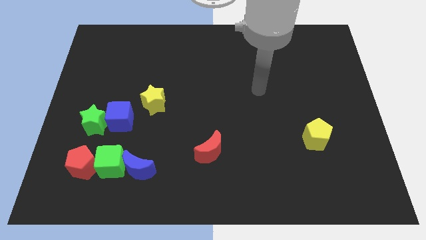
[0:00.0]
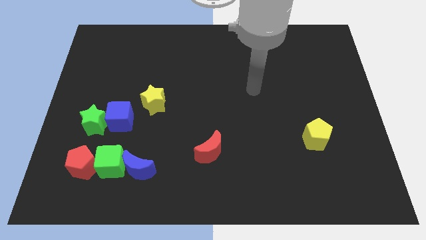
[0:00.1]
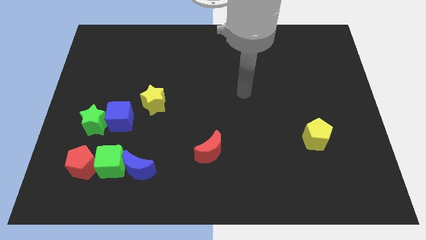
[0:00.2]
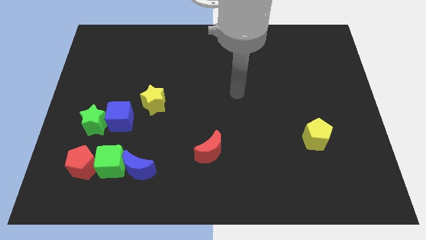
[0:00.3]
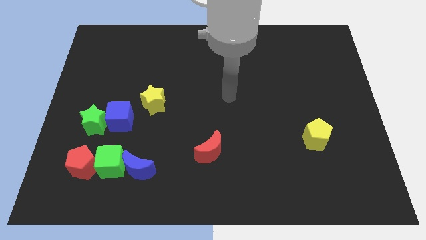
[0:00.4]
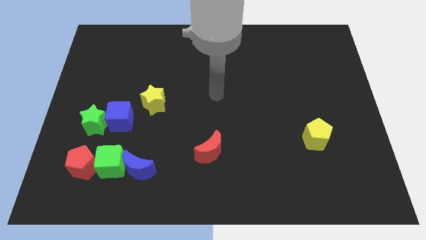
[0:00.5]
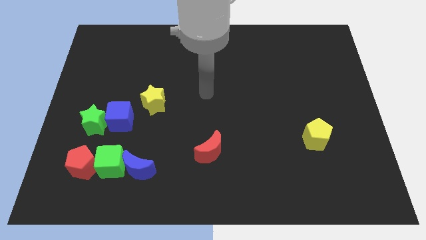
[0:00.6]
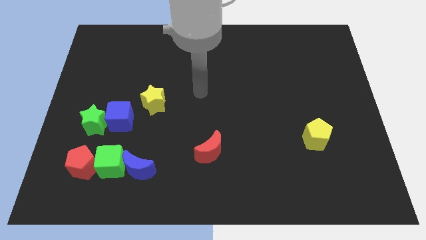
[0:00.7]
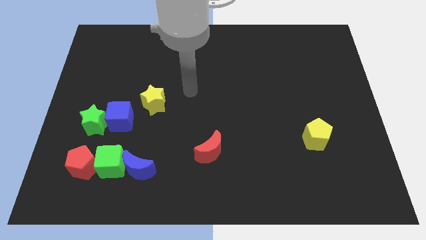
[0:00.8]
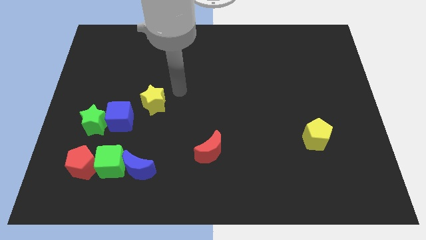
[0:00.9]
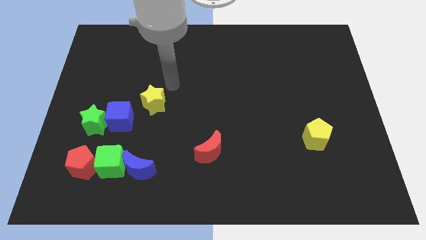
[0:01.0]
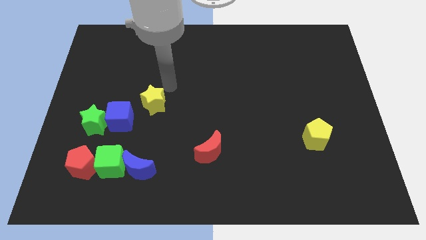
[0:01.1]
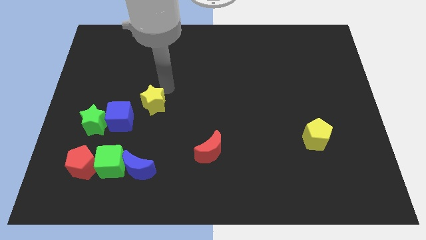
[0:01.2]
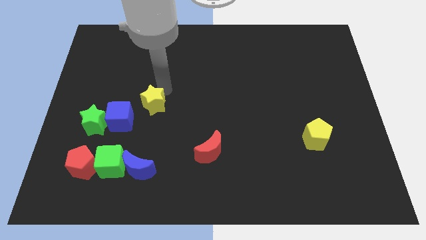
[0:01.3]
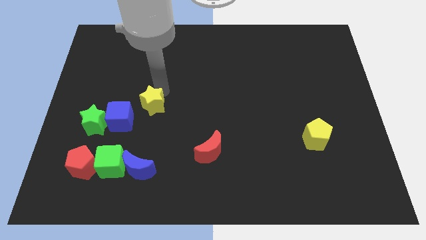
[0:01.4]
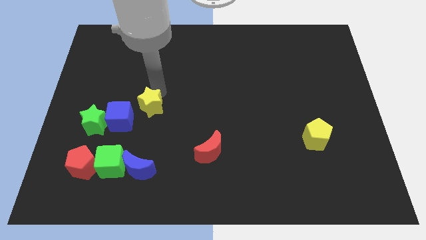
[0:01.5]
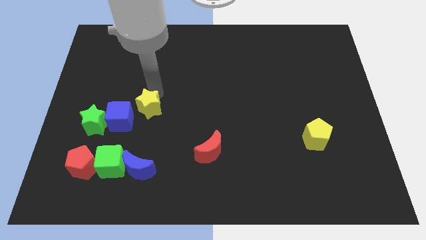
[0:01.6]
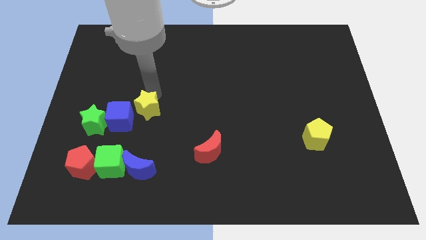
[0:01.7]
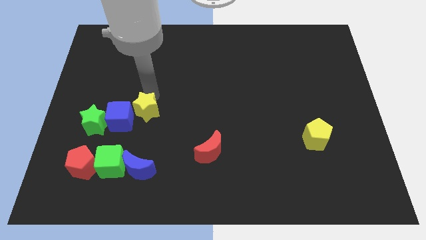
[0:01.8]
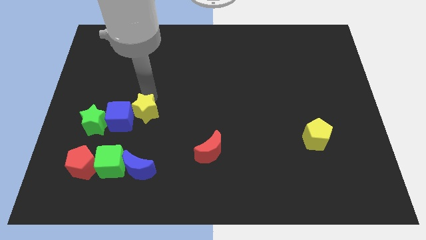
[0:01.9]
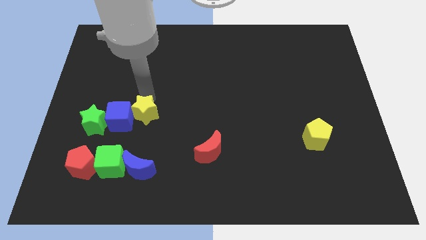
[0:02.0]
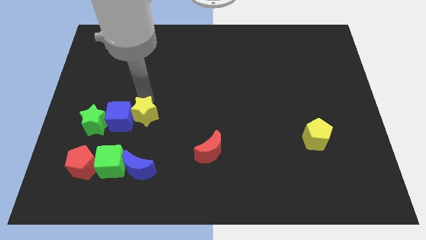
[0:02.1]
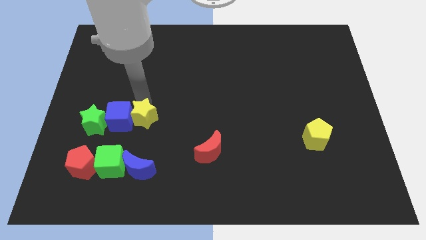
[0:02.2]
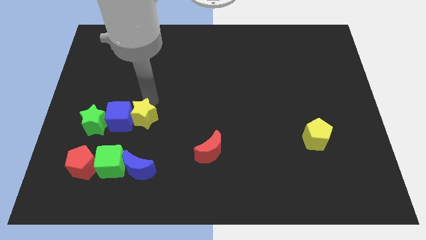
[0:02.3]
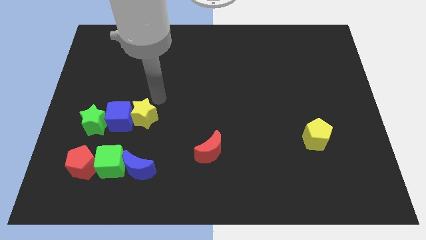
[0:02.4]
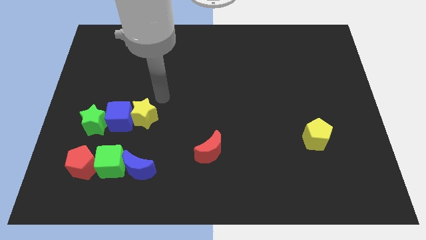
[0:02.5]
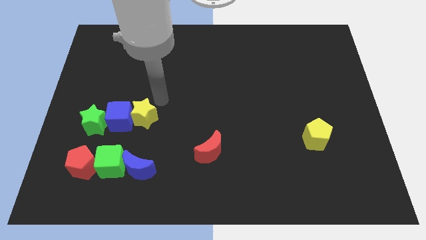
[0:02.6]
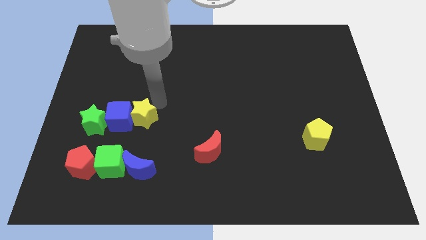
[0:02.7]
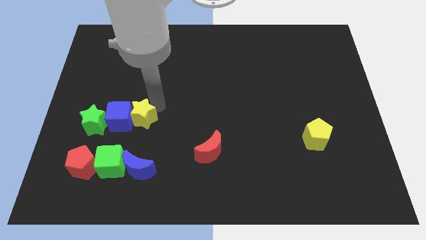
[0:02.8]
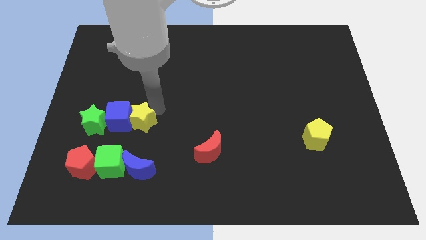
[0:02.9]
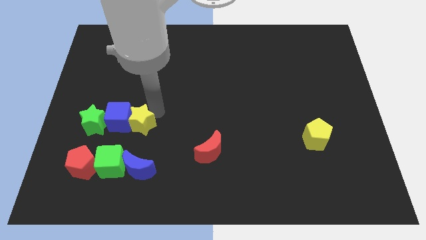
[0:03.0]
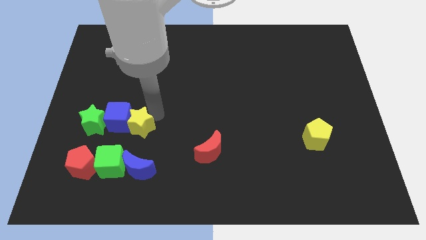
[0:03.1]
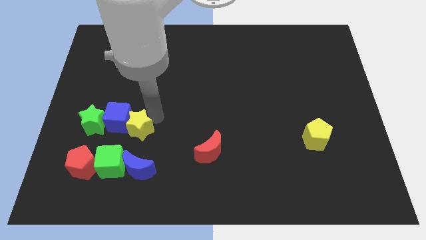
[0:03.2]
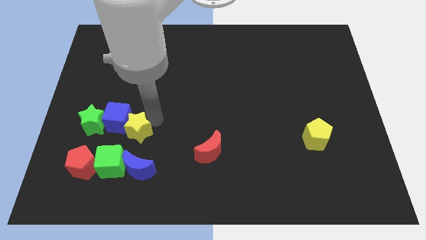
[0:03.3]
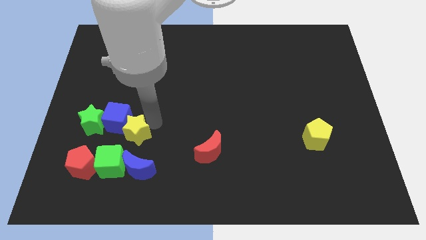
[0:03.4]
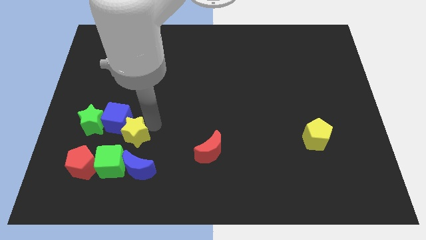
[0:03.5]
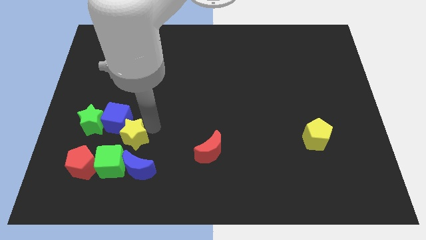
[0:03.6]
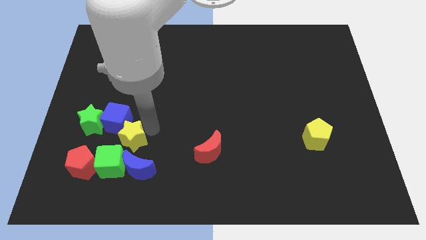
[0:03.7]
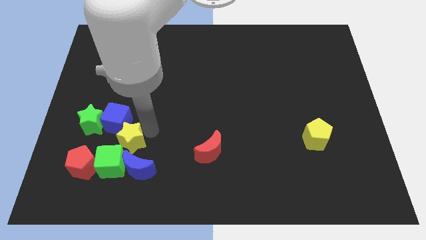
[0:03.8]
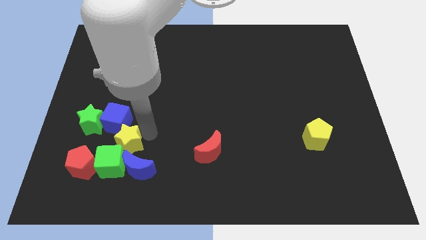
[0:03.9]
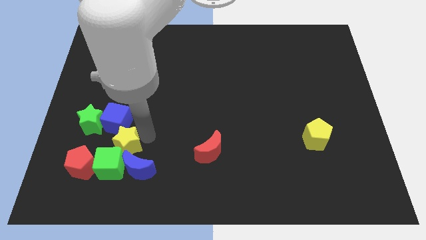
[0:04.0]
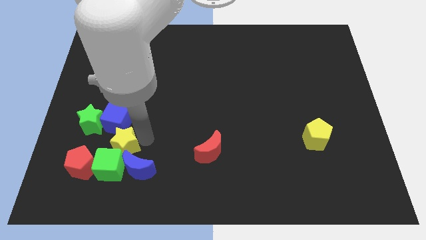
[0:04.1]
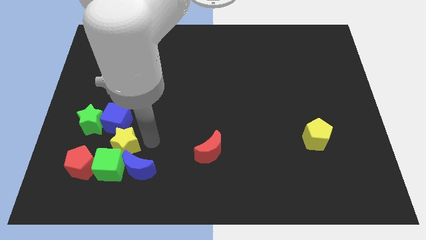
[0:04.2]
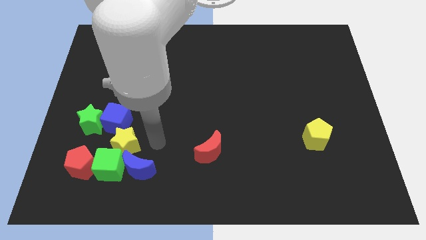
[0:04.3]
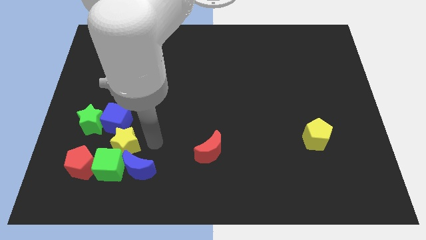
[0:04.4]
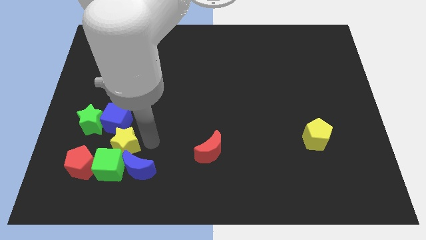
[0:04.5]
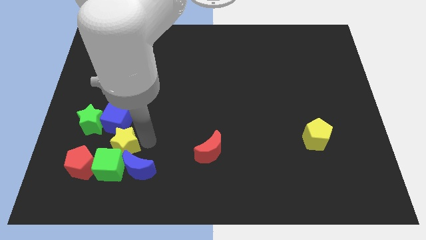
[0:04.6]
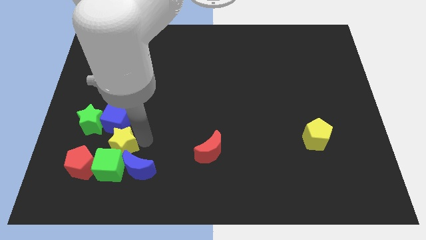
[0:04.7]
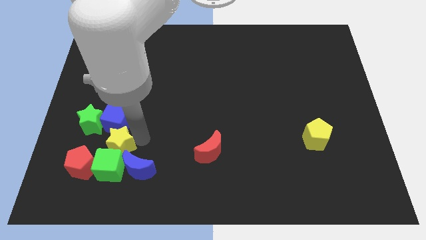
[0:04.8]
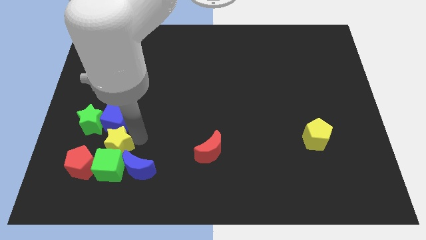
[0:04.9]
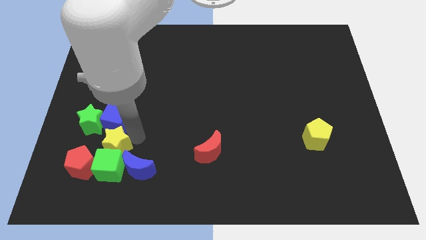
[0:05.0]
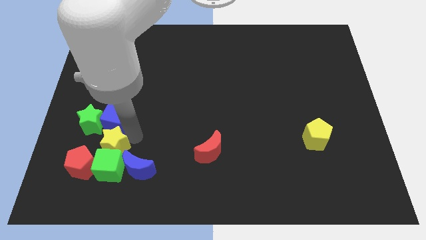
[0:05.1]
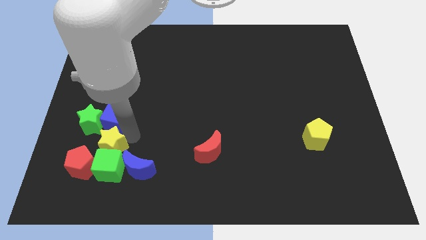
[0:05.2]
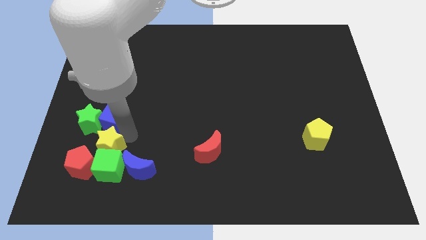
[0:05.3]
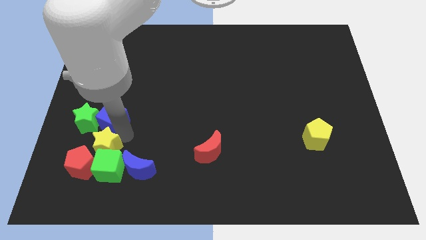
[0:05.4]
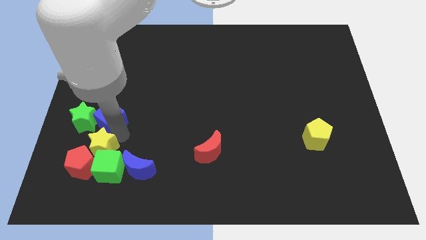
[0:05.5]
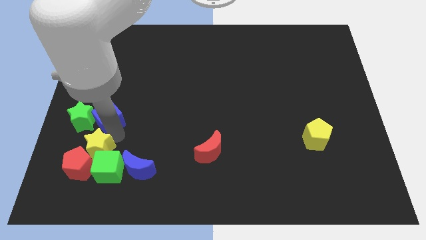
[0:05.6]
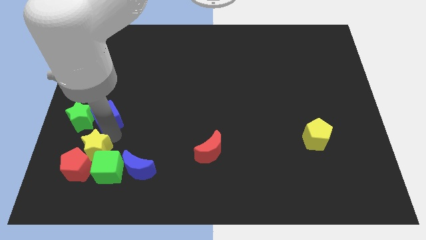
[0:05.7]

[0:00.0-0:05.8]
push the yellow star to the bottom side of the green star
